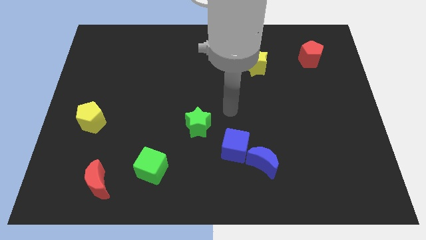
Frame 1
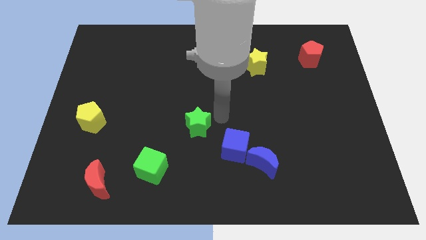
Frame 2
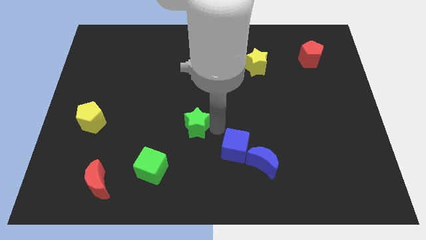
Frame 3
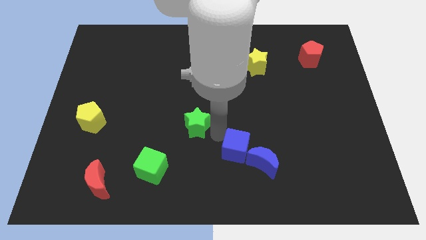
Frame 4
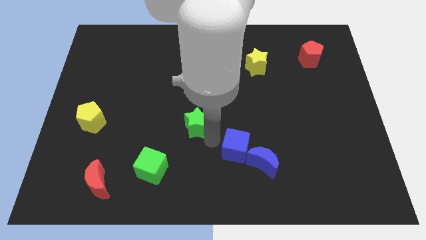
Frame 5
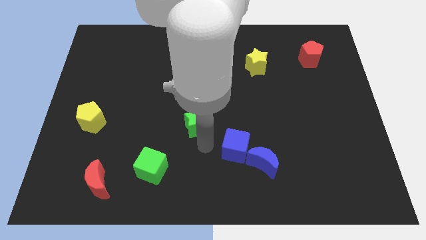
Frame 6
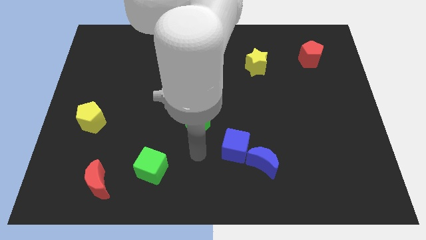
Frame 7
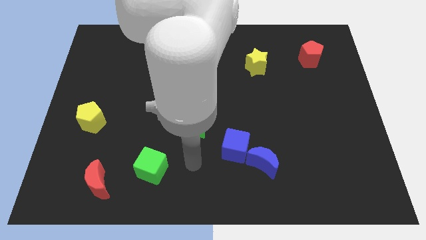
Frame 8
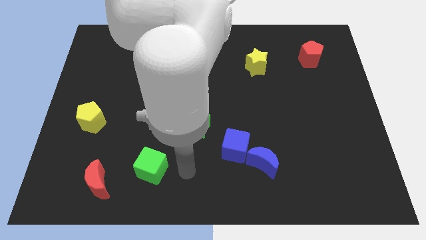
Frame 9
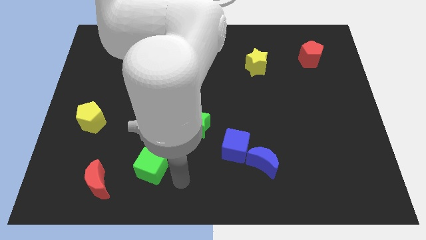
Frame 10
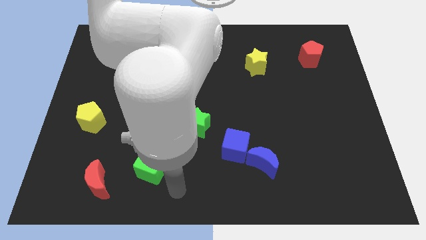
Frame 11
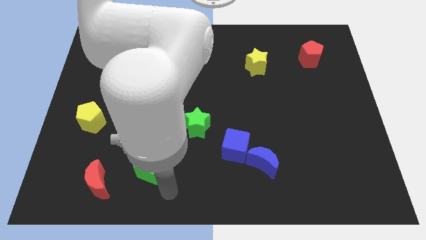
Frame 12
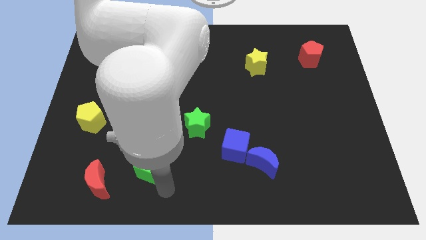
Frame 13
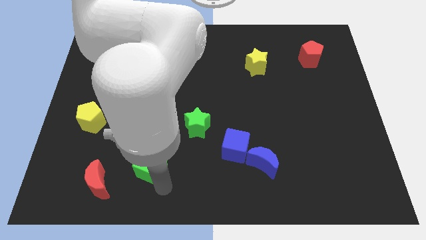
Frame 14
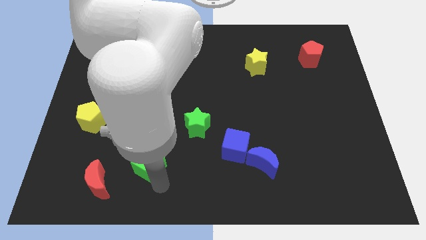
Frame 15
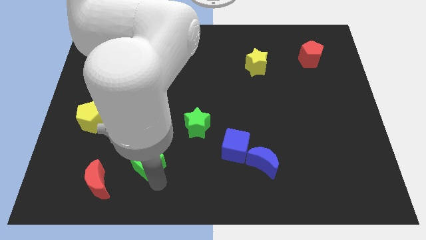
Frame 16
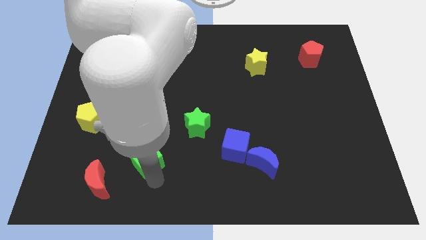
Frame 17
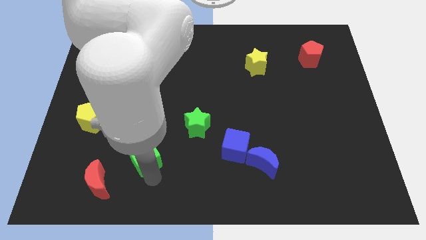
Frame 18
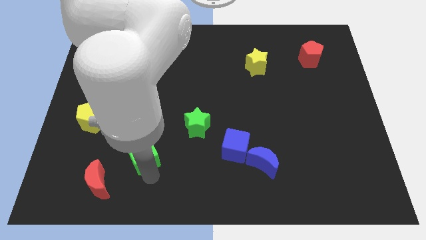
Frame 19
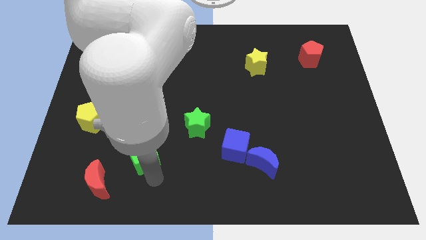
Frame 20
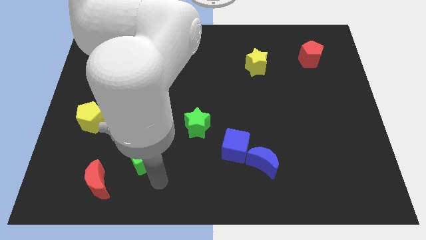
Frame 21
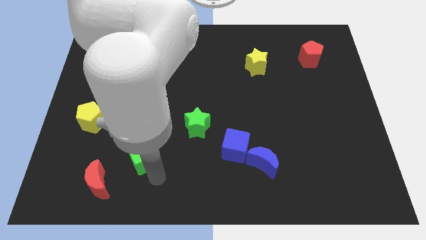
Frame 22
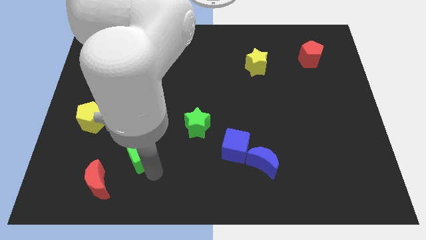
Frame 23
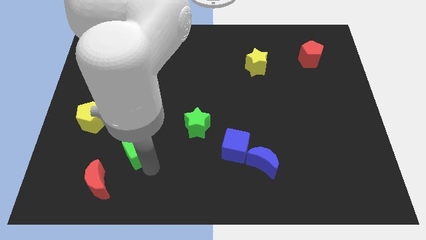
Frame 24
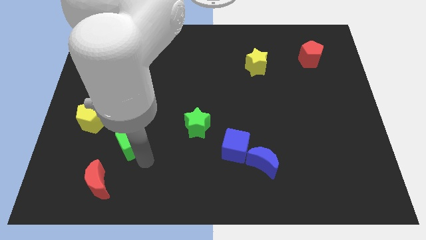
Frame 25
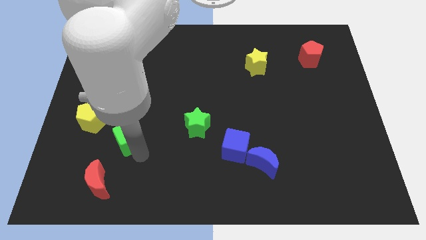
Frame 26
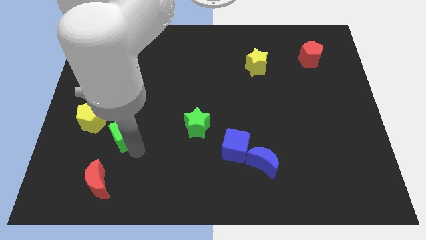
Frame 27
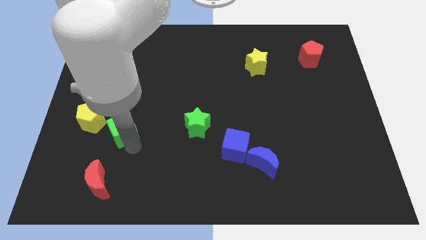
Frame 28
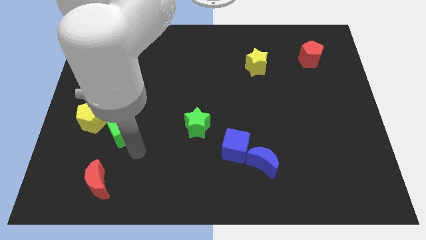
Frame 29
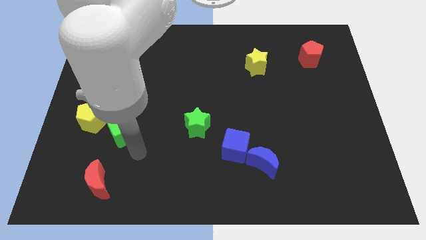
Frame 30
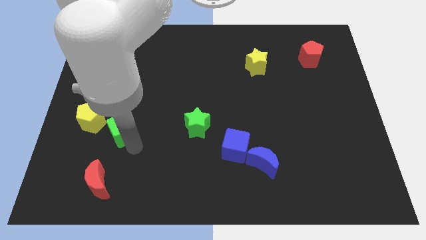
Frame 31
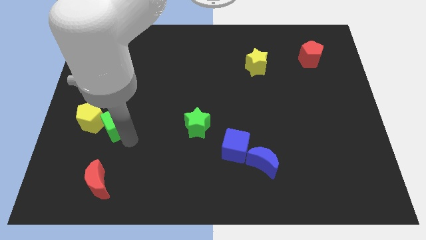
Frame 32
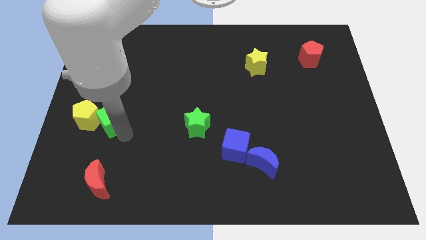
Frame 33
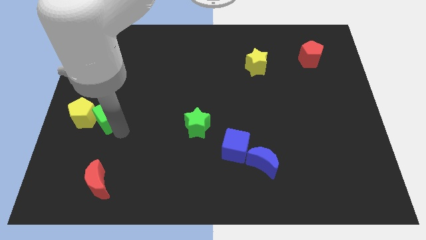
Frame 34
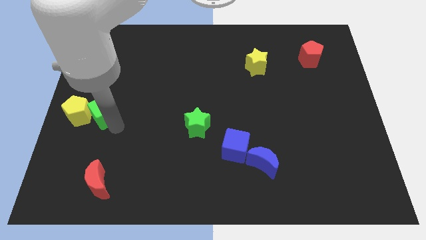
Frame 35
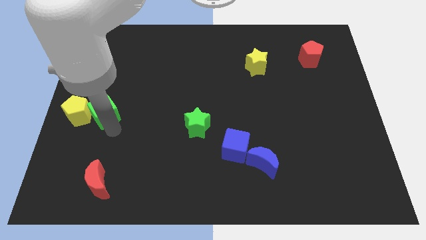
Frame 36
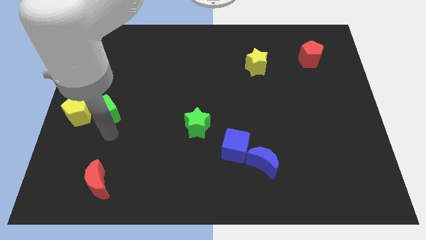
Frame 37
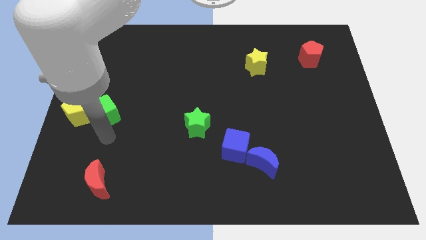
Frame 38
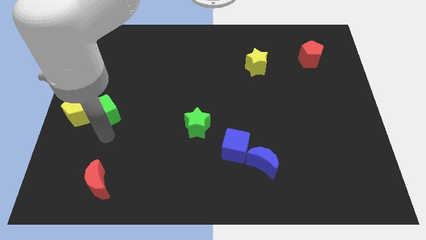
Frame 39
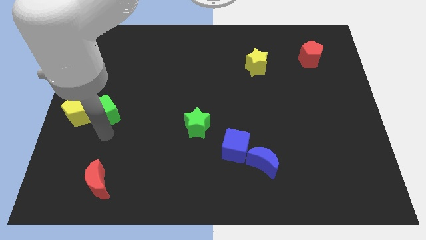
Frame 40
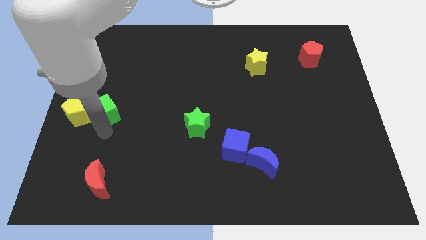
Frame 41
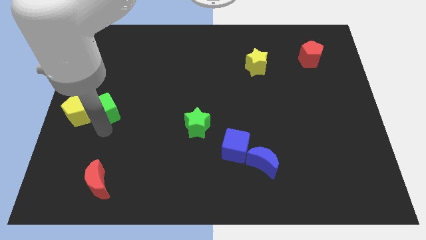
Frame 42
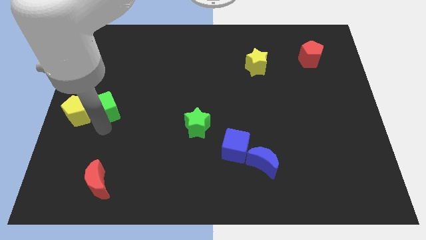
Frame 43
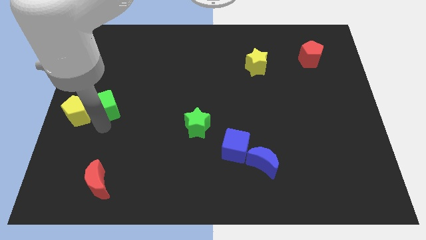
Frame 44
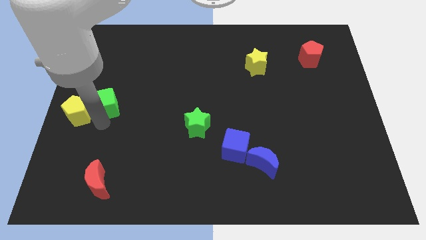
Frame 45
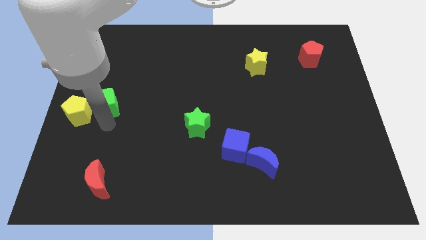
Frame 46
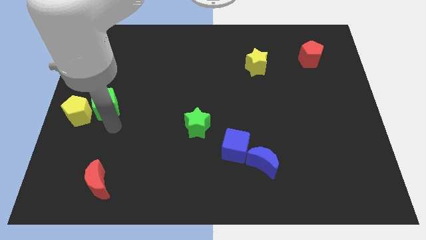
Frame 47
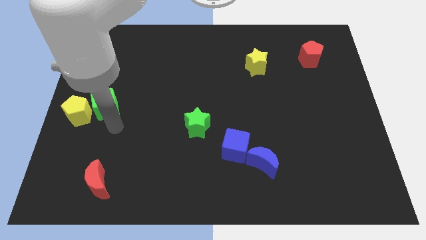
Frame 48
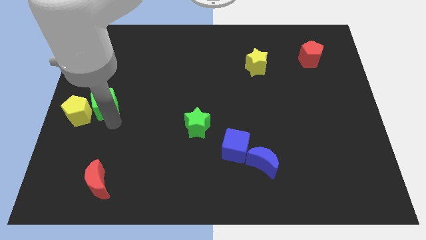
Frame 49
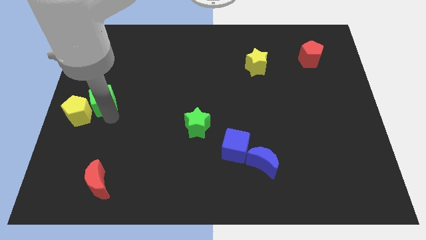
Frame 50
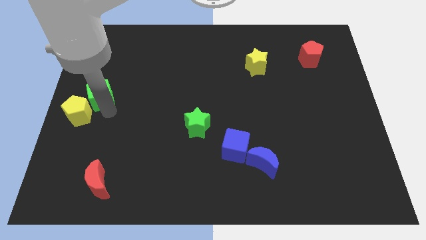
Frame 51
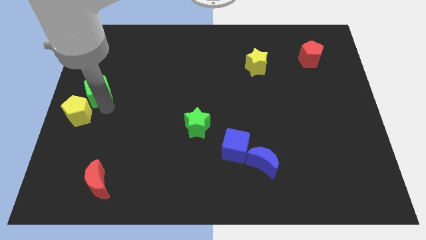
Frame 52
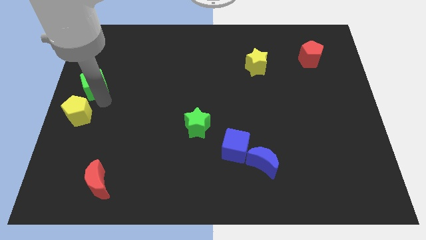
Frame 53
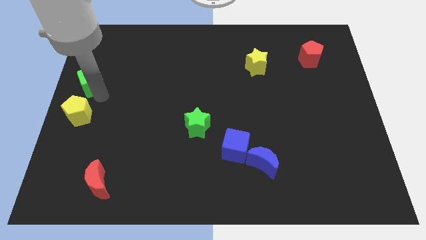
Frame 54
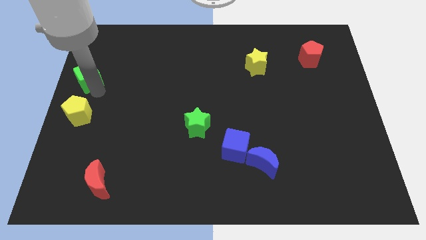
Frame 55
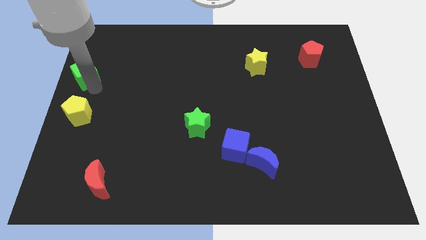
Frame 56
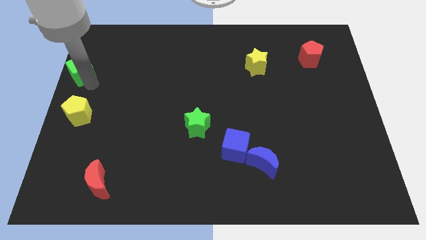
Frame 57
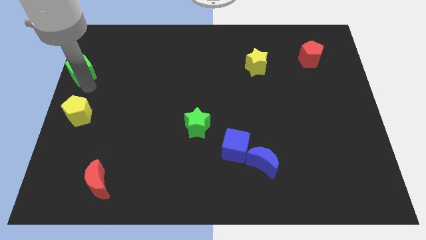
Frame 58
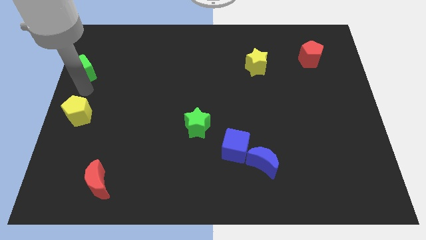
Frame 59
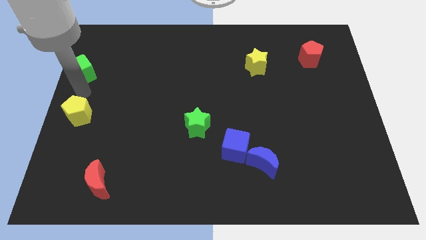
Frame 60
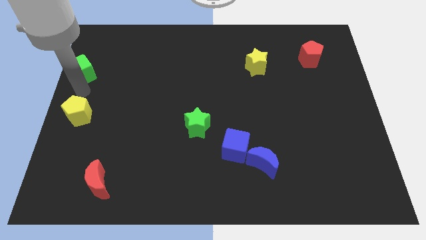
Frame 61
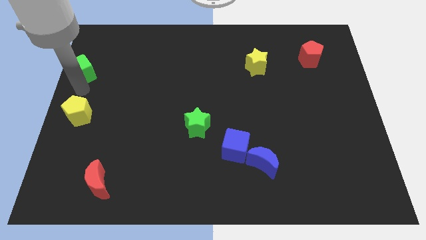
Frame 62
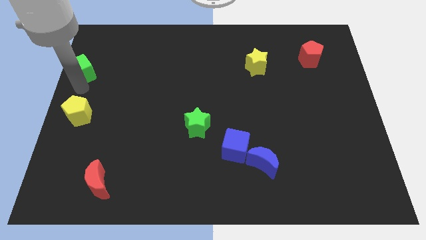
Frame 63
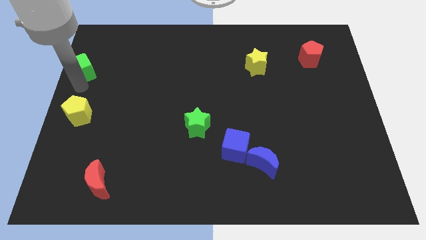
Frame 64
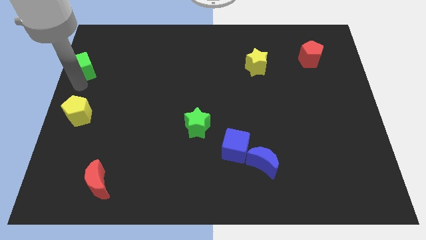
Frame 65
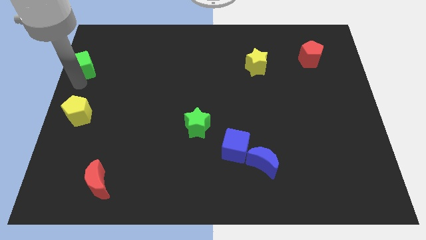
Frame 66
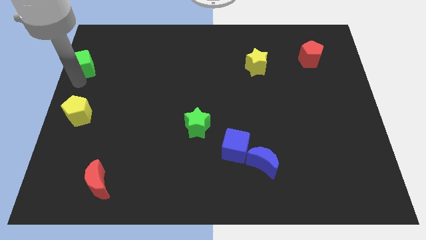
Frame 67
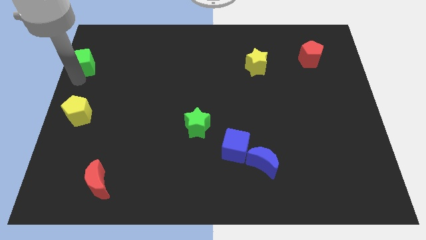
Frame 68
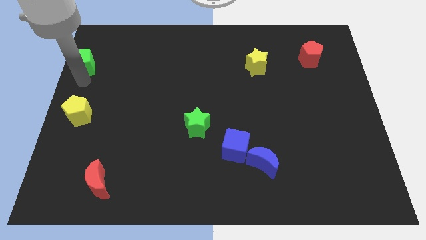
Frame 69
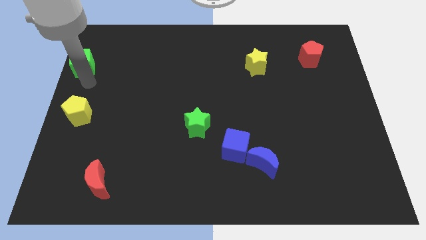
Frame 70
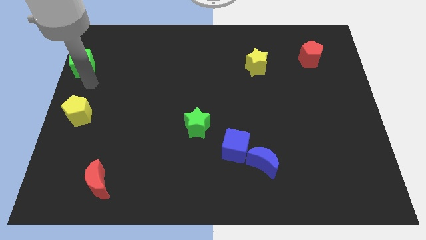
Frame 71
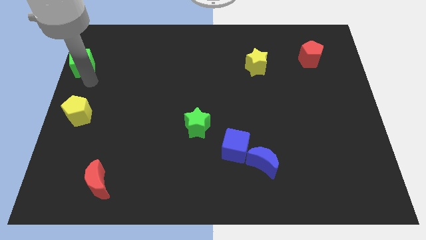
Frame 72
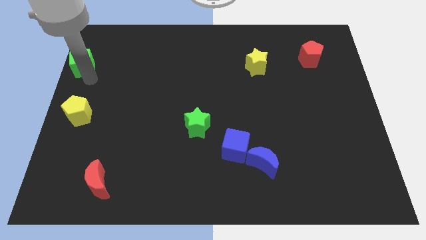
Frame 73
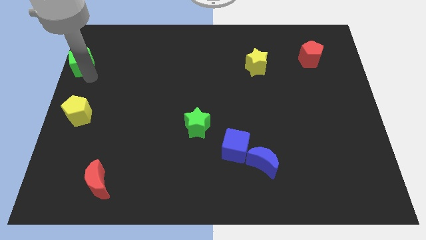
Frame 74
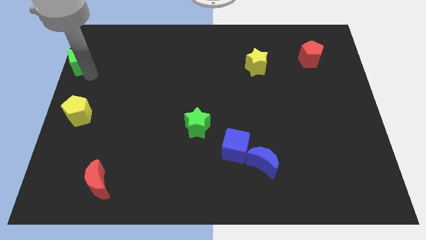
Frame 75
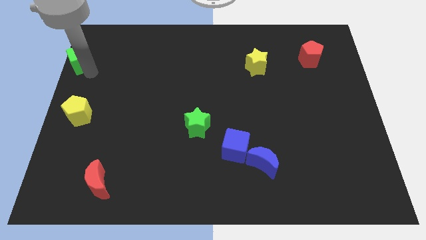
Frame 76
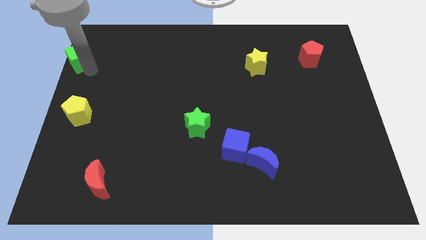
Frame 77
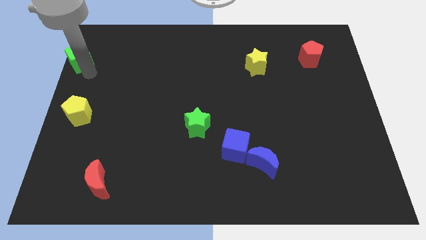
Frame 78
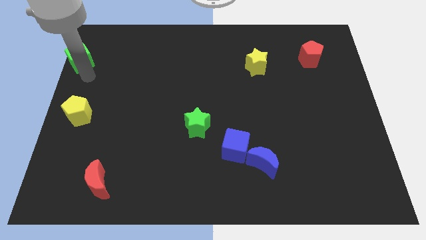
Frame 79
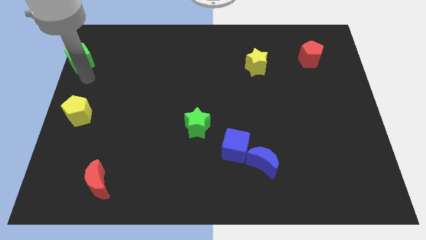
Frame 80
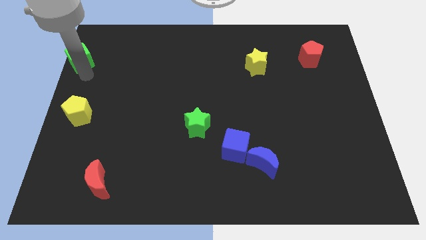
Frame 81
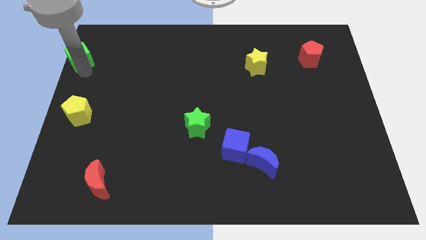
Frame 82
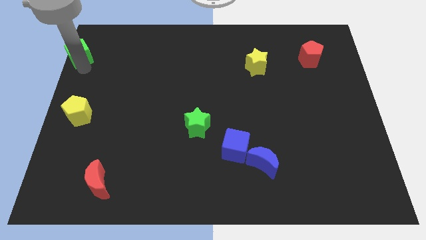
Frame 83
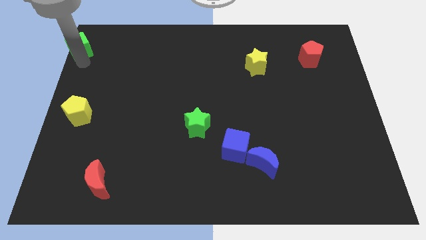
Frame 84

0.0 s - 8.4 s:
put the green cube to the top left
